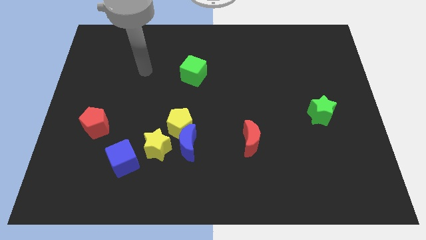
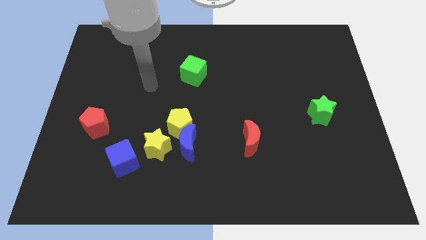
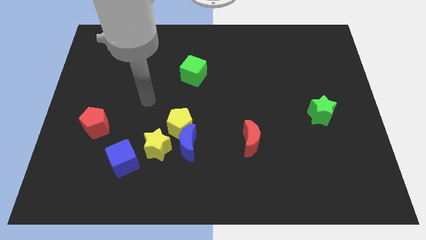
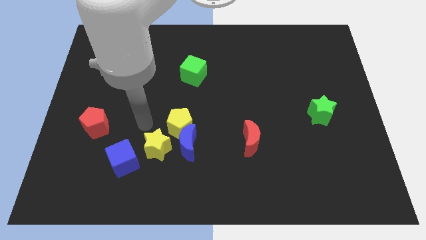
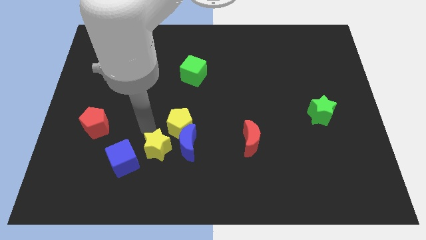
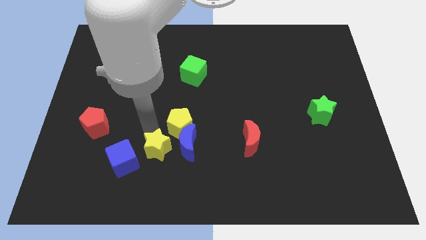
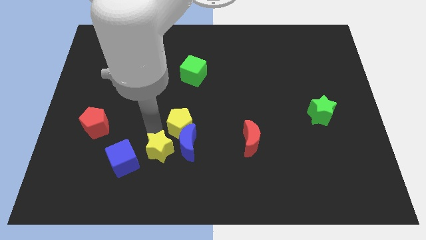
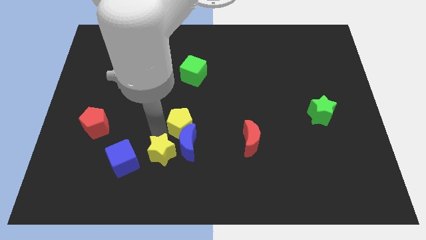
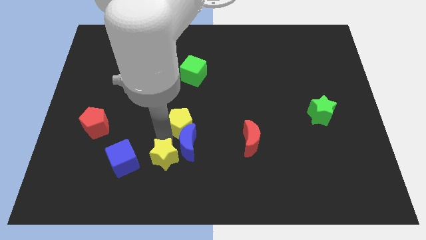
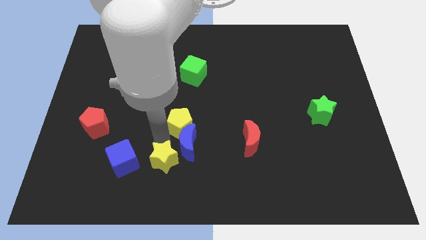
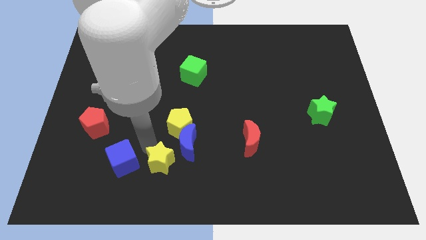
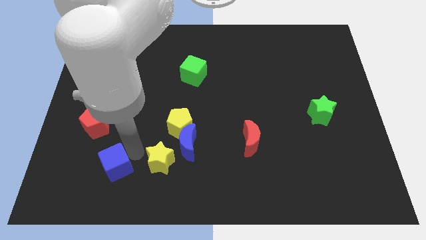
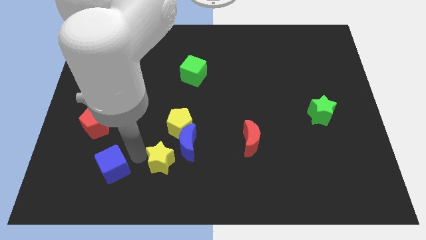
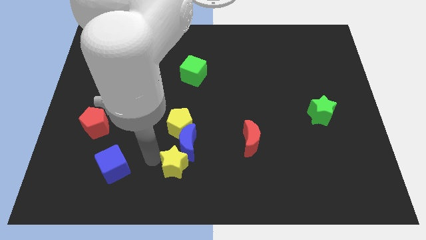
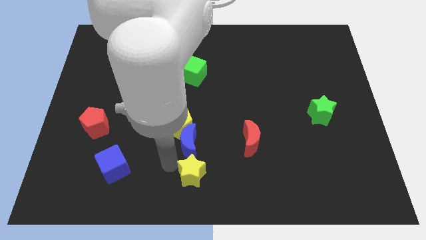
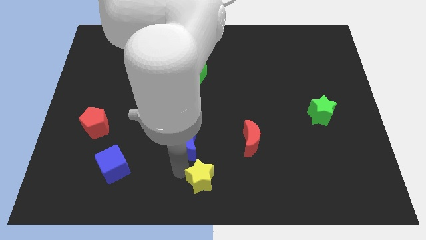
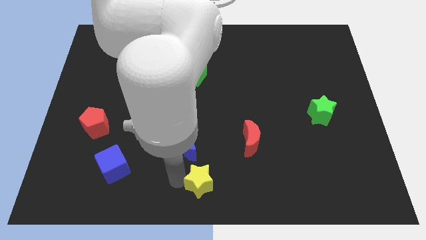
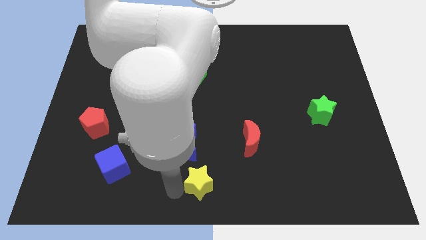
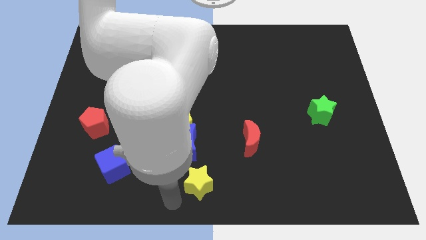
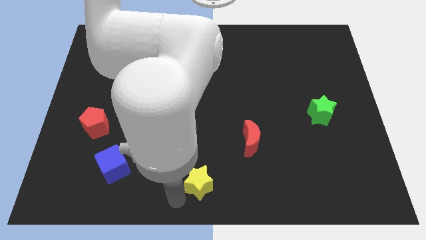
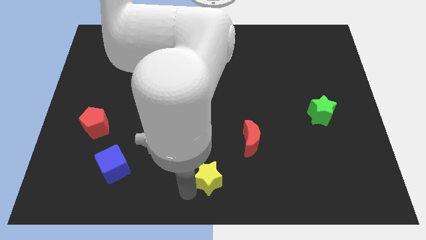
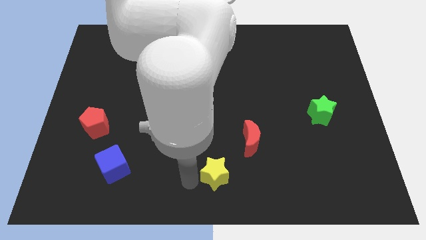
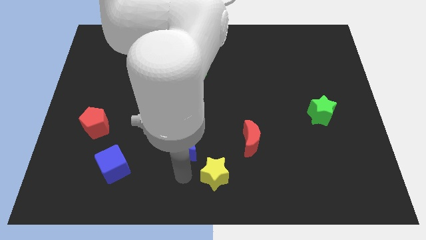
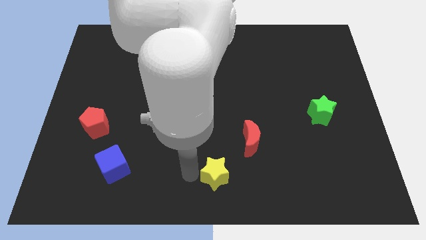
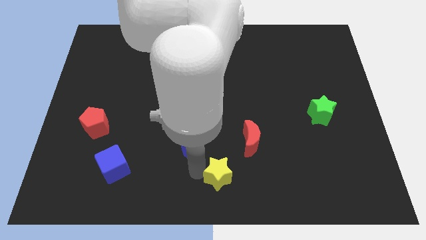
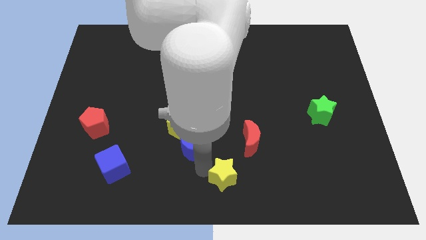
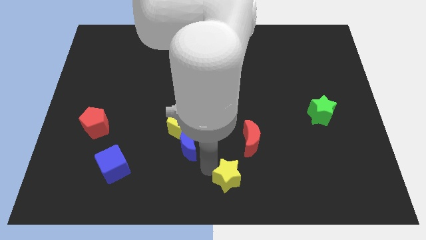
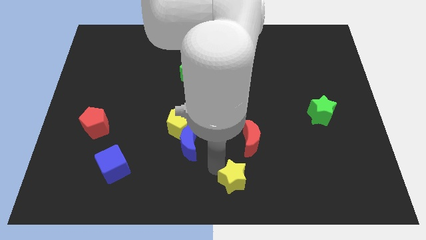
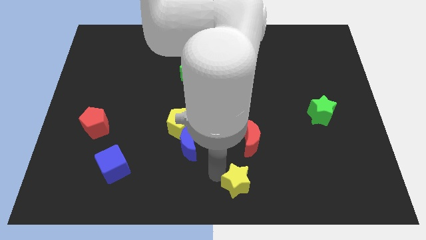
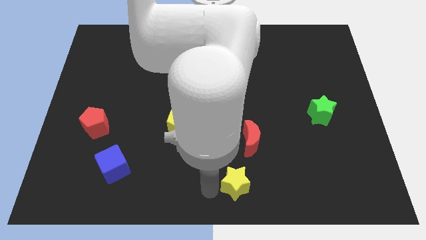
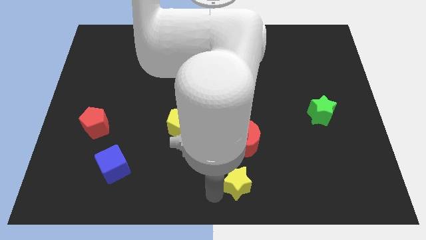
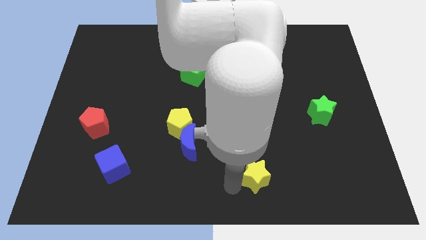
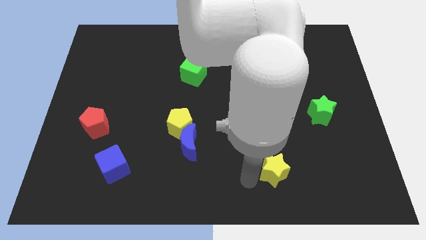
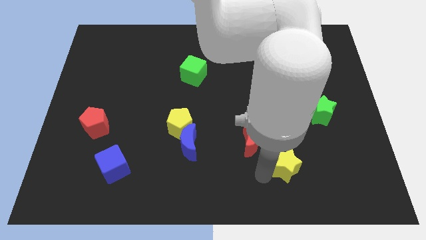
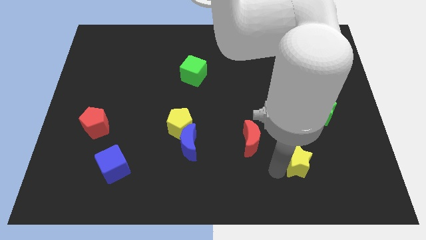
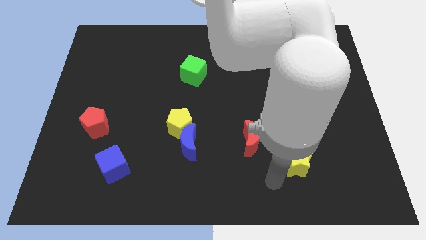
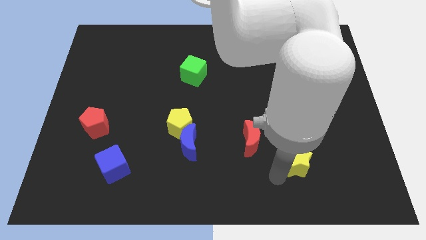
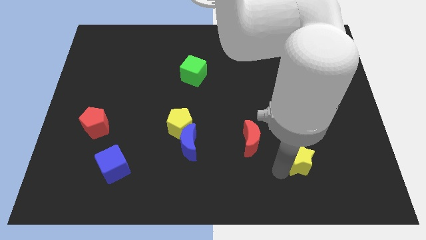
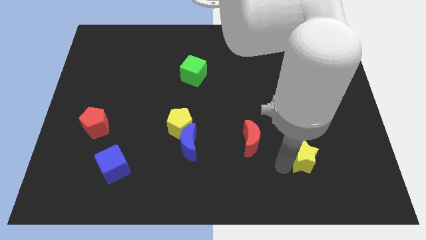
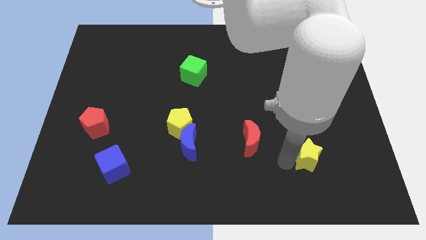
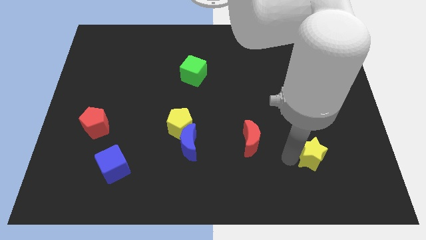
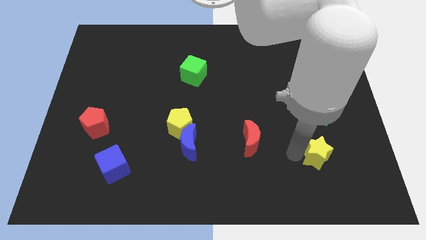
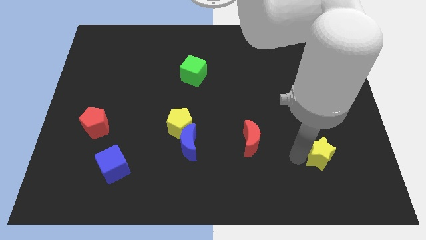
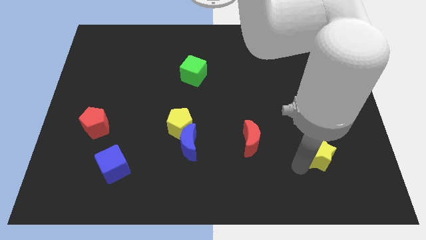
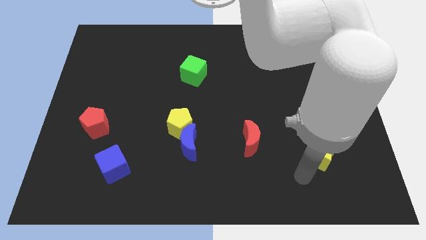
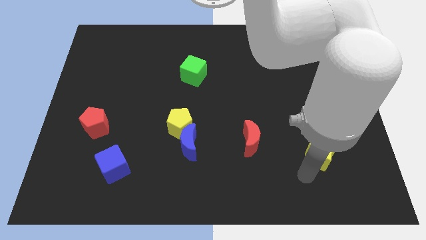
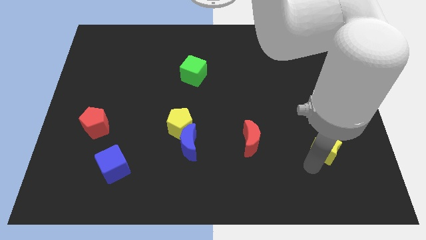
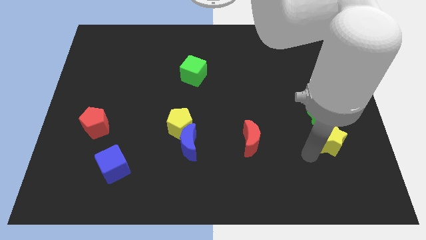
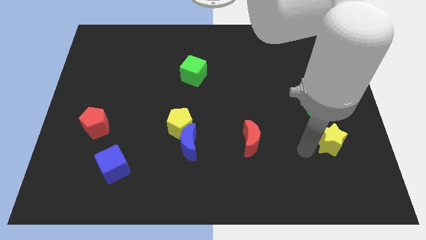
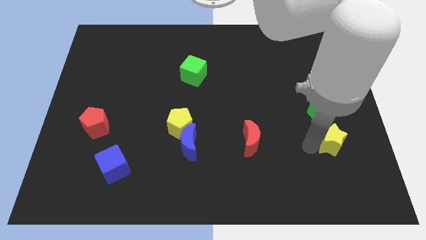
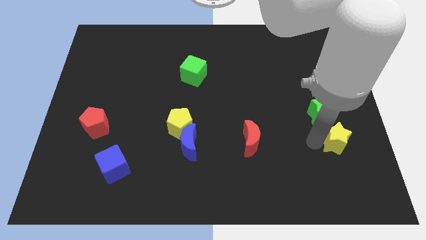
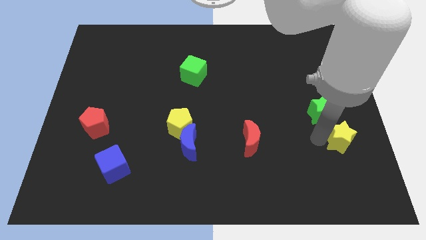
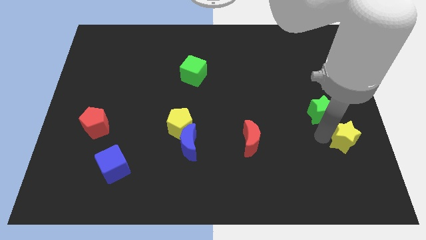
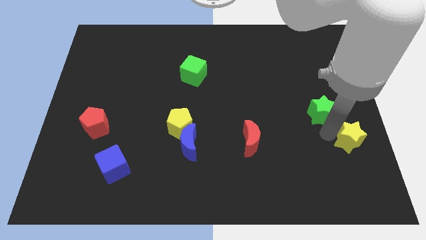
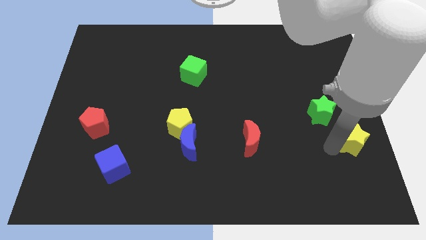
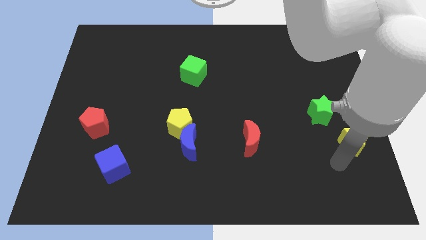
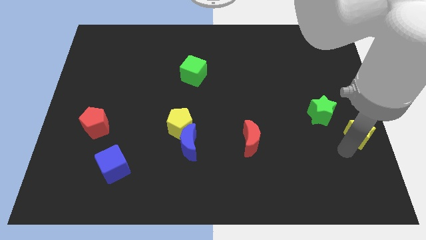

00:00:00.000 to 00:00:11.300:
move the yellow star to the center right

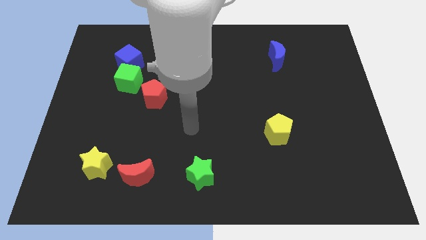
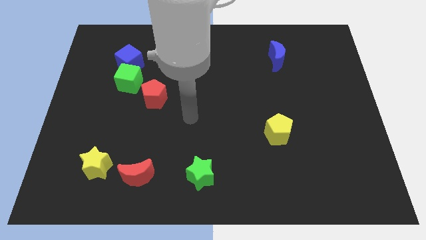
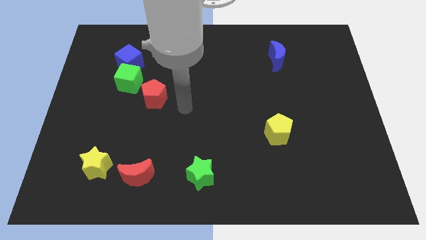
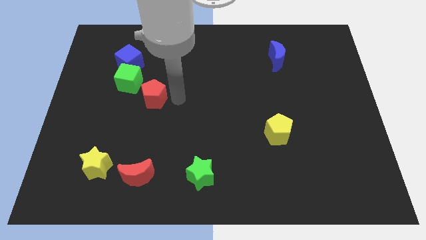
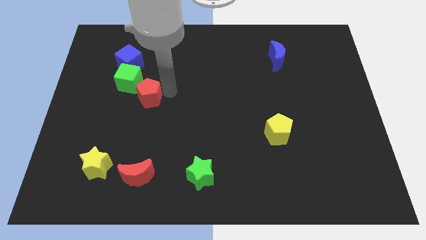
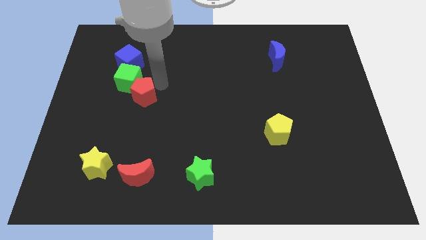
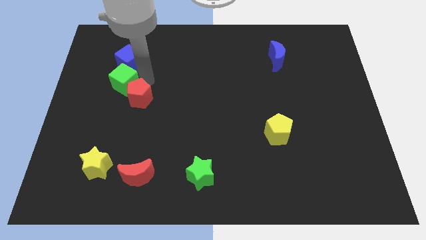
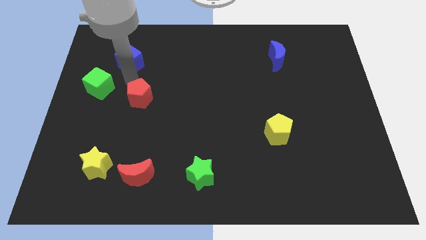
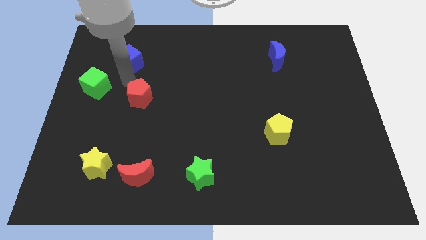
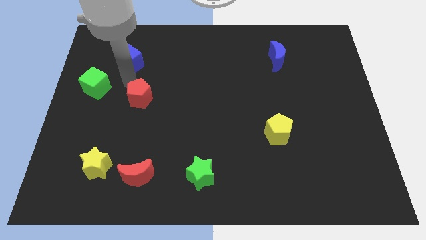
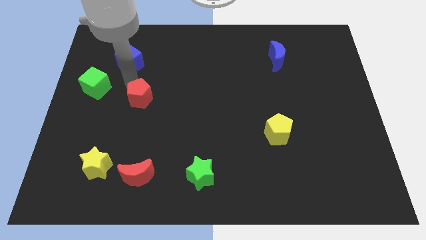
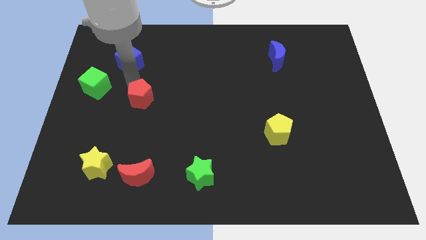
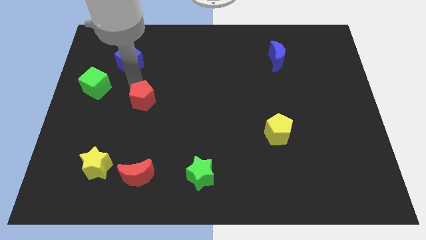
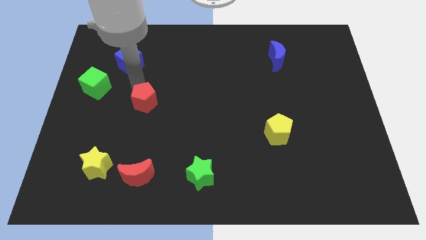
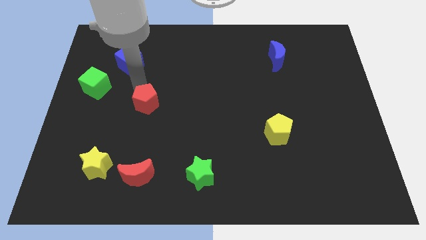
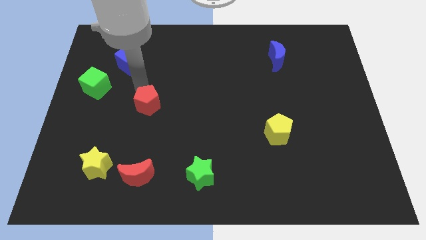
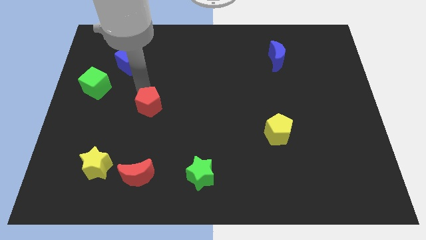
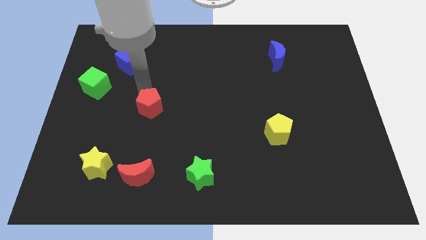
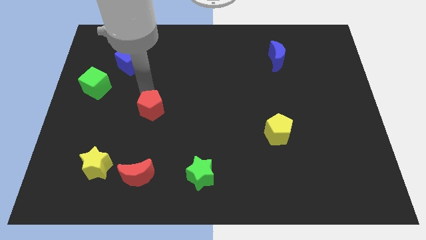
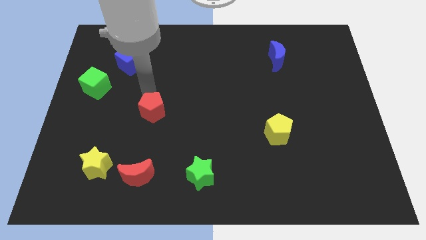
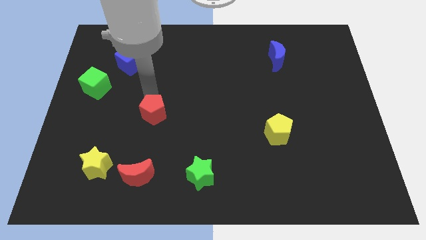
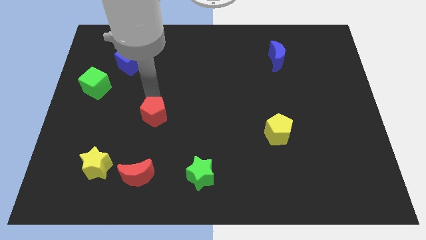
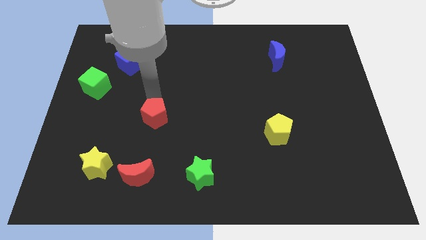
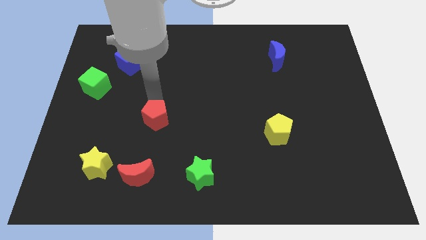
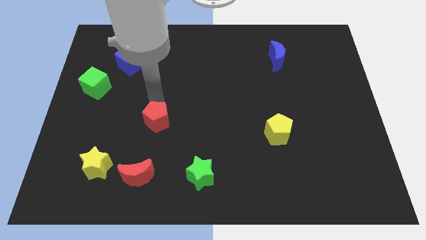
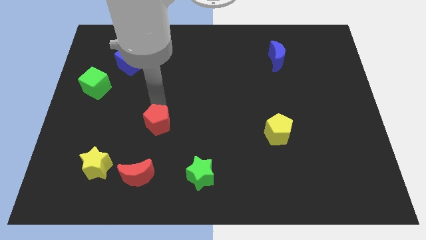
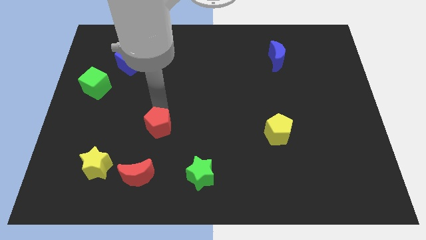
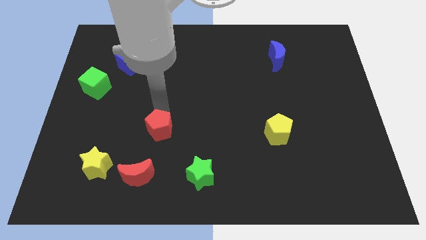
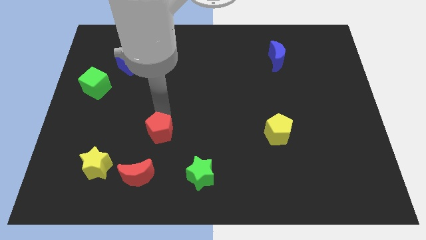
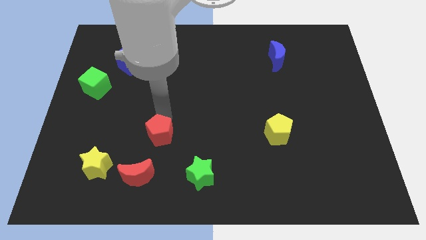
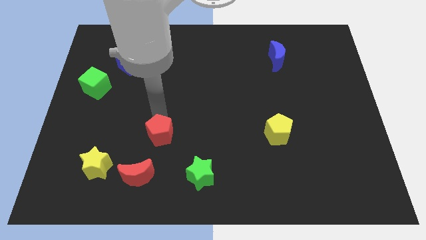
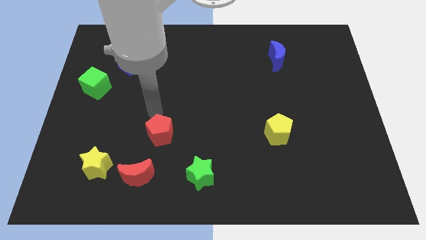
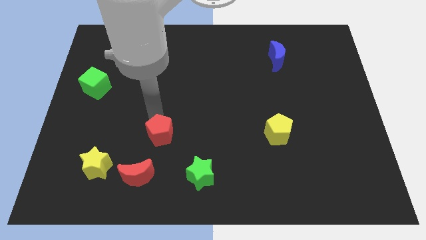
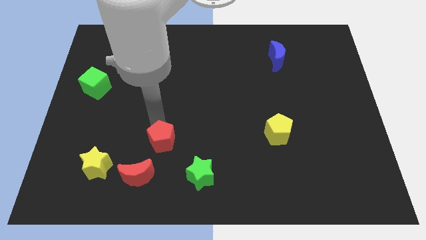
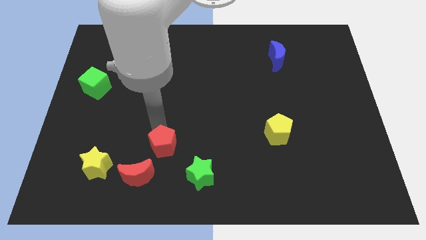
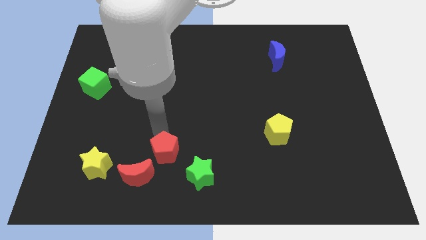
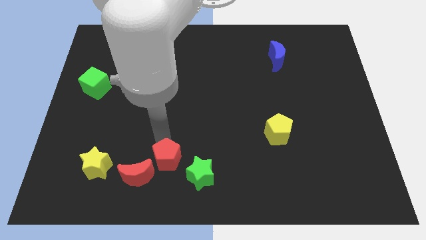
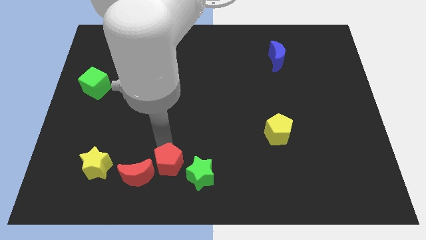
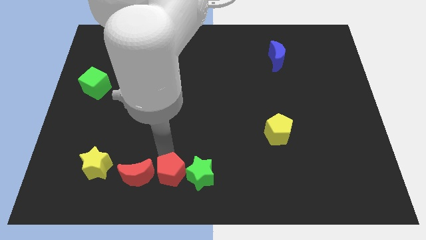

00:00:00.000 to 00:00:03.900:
slide the red pentagon to the bottom side
